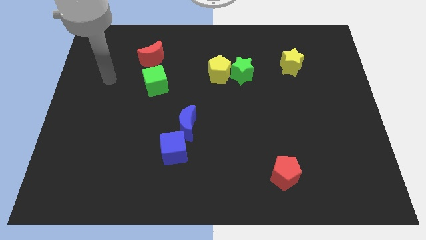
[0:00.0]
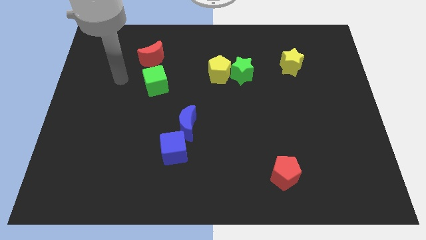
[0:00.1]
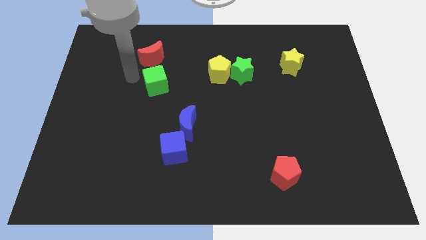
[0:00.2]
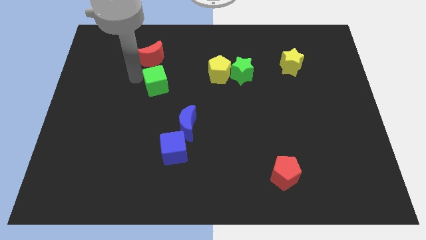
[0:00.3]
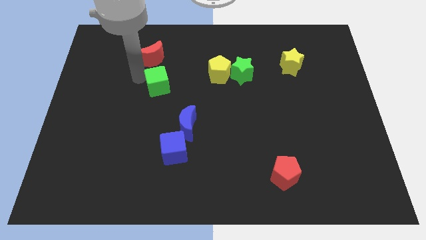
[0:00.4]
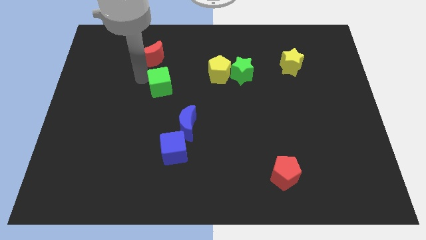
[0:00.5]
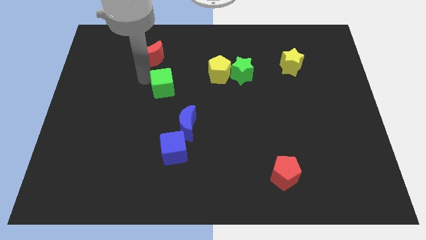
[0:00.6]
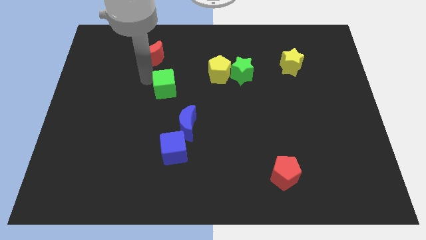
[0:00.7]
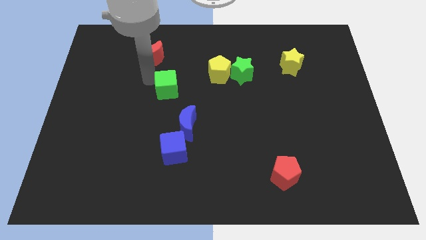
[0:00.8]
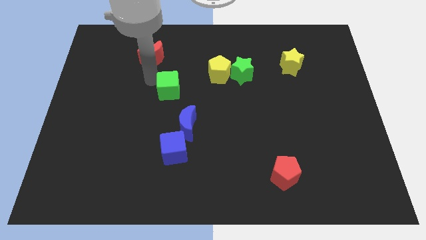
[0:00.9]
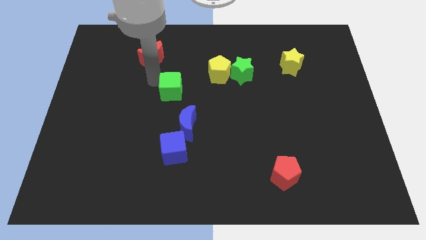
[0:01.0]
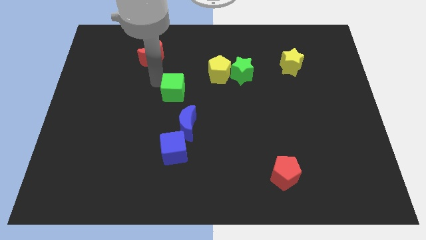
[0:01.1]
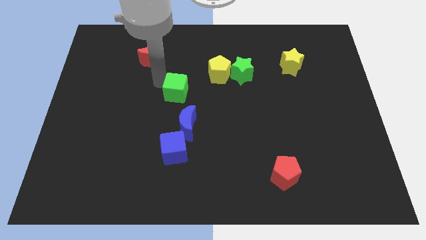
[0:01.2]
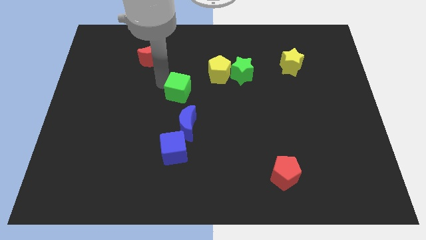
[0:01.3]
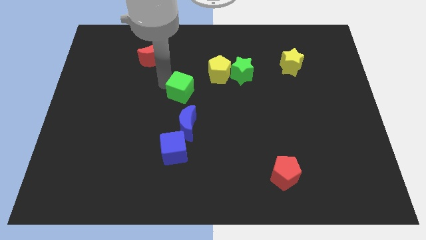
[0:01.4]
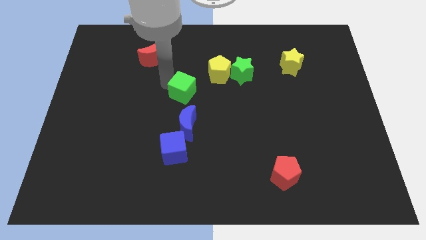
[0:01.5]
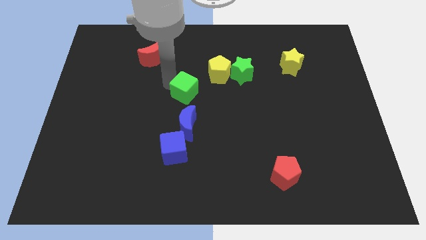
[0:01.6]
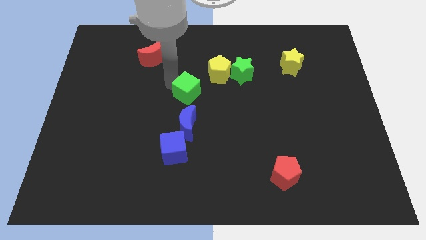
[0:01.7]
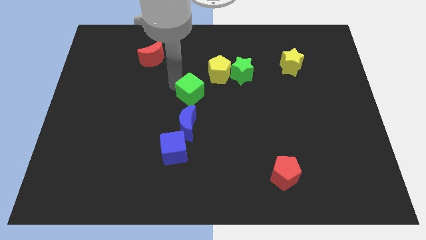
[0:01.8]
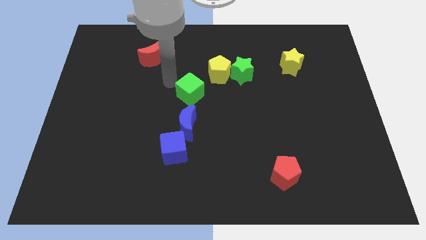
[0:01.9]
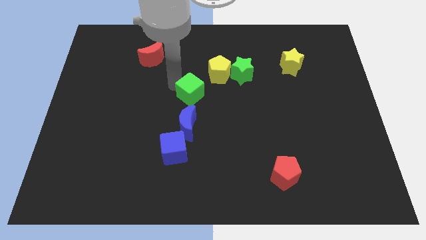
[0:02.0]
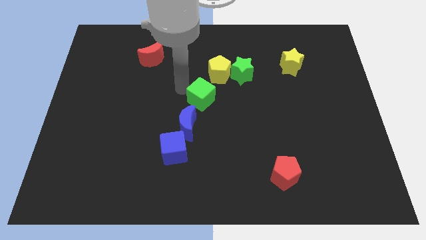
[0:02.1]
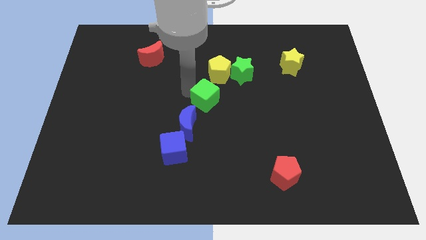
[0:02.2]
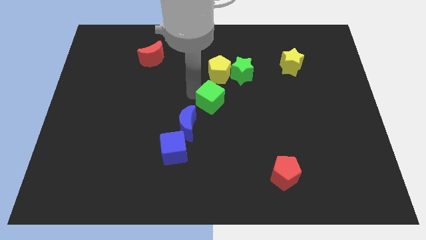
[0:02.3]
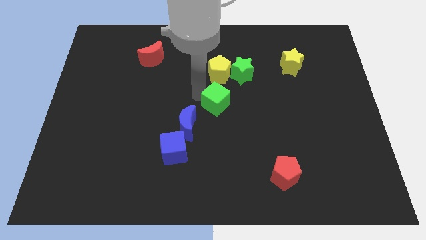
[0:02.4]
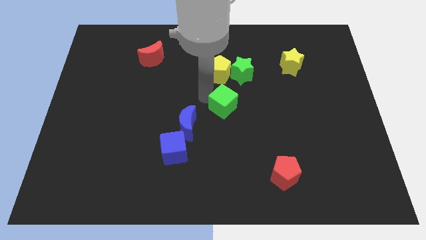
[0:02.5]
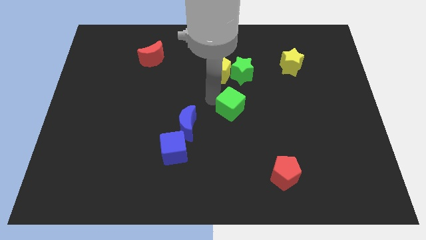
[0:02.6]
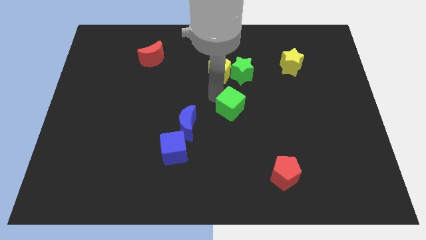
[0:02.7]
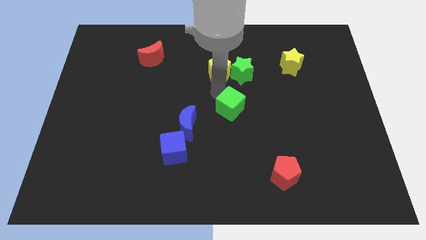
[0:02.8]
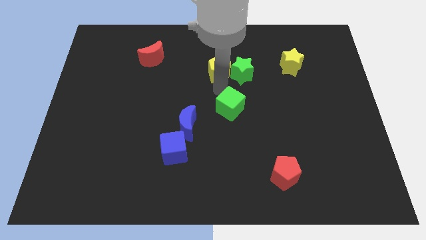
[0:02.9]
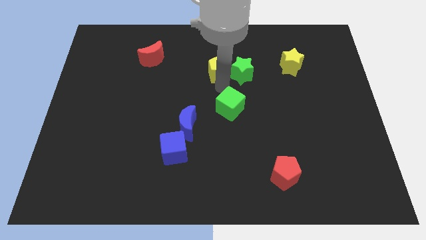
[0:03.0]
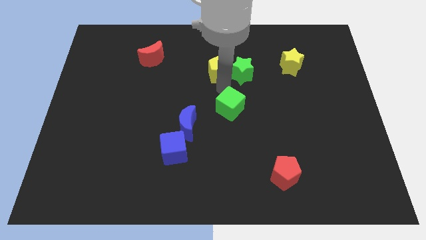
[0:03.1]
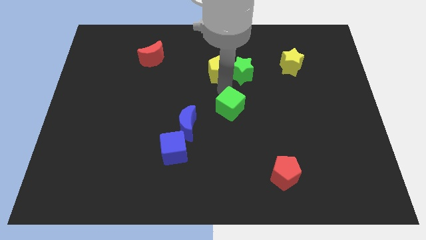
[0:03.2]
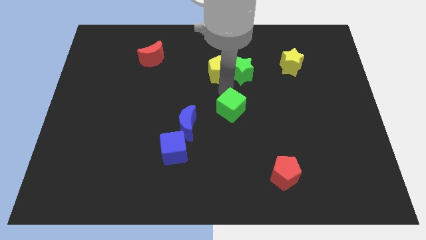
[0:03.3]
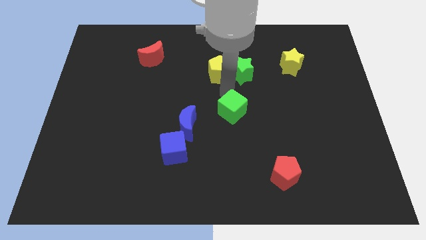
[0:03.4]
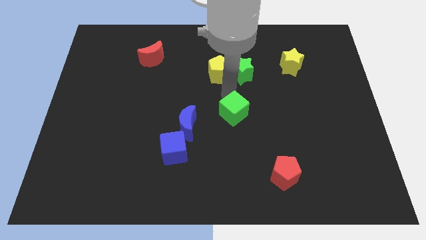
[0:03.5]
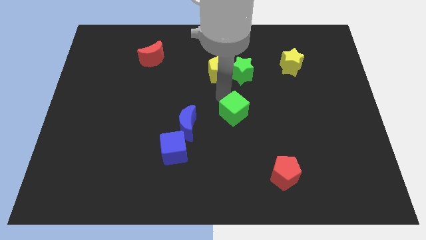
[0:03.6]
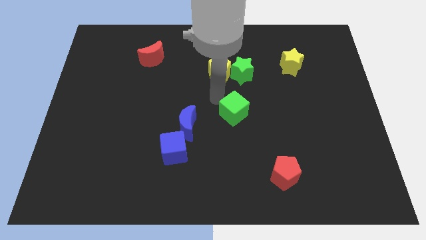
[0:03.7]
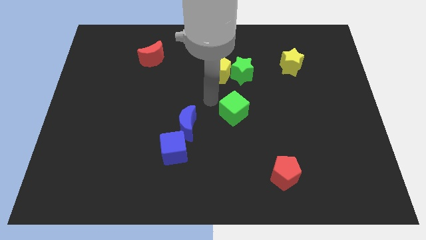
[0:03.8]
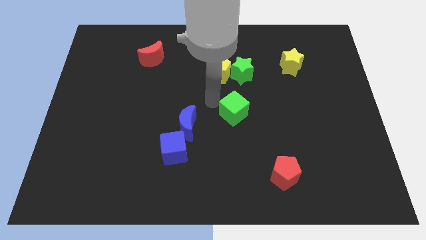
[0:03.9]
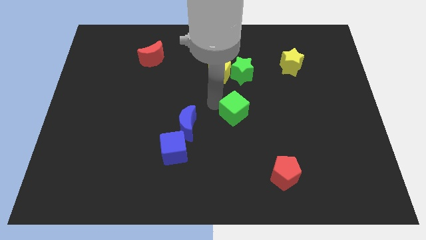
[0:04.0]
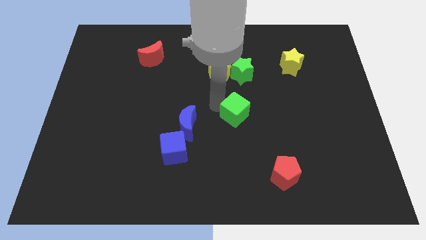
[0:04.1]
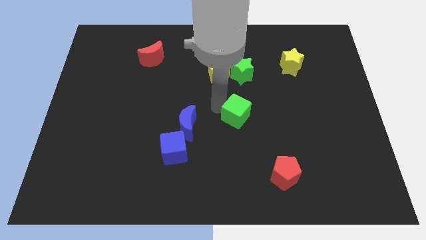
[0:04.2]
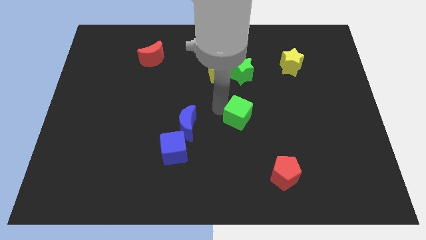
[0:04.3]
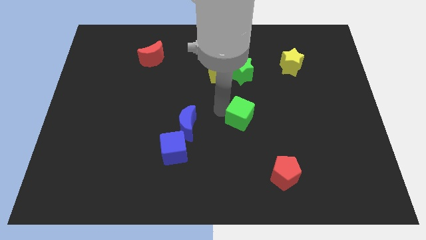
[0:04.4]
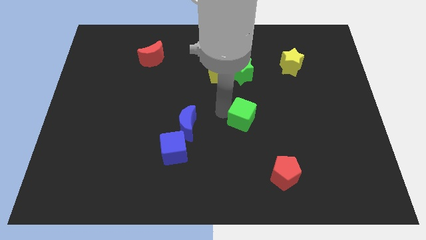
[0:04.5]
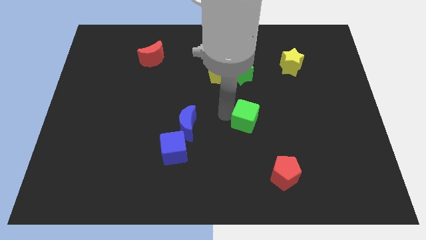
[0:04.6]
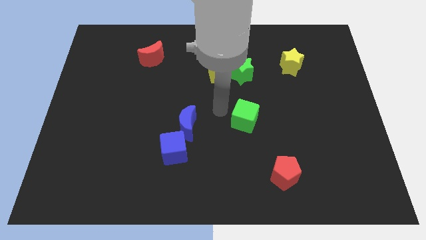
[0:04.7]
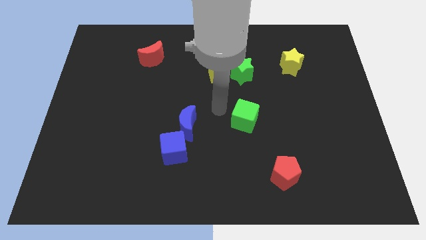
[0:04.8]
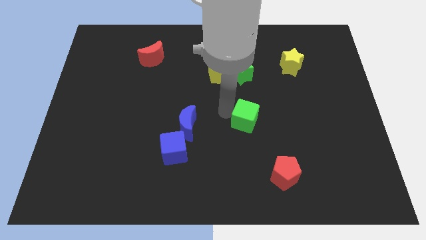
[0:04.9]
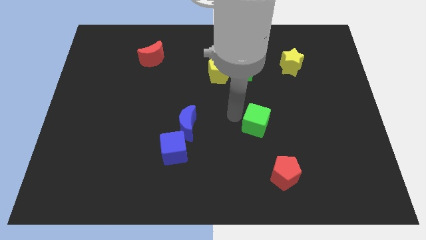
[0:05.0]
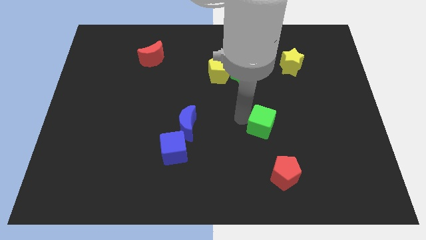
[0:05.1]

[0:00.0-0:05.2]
move the green cube to the top of the red pentagon

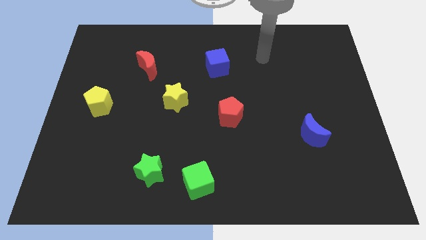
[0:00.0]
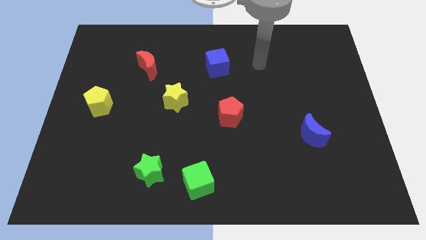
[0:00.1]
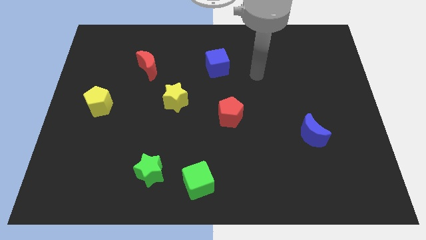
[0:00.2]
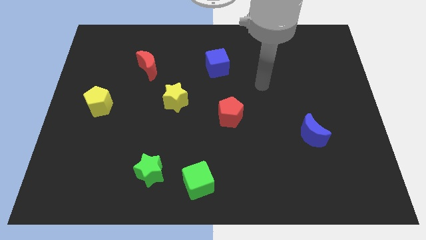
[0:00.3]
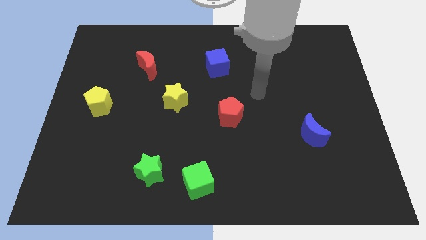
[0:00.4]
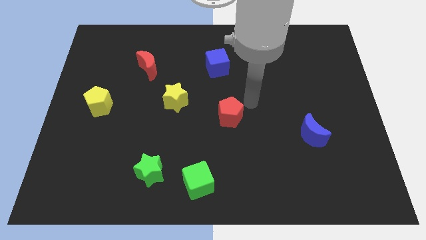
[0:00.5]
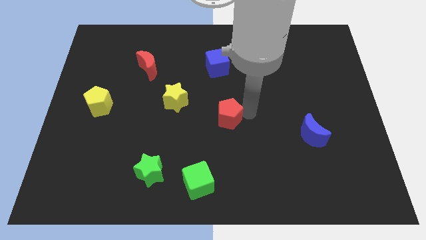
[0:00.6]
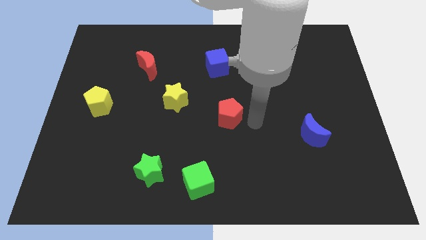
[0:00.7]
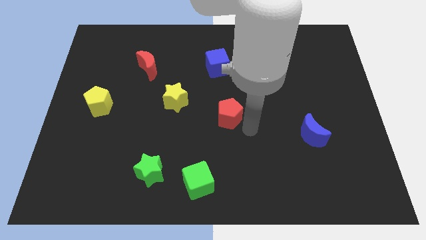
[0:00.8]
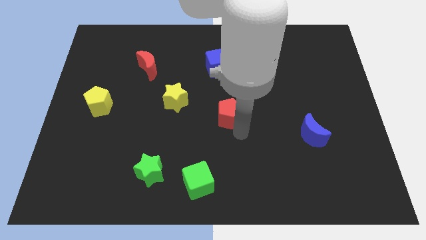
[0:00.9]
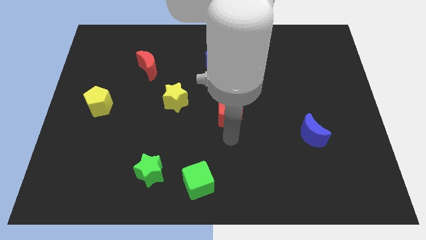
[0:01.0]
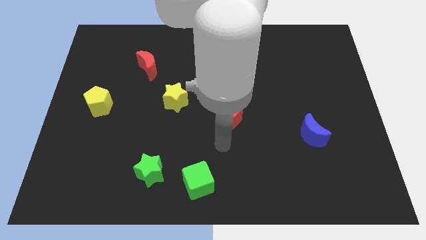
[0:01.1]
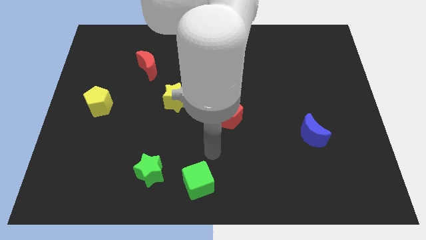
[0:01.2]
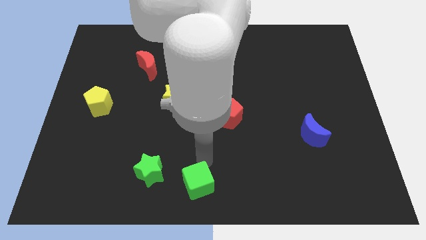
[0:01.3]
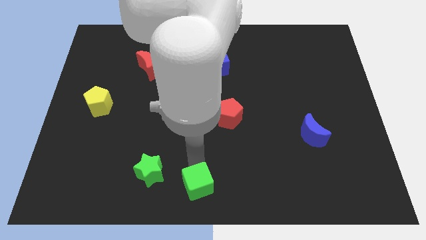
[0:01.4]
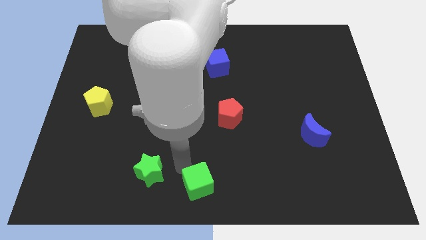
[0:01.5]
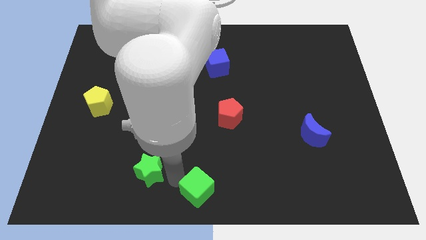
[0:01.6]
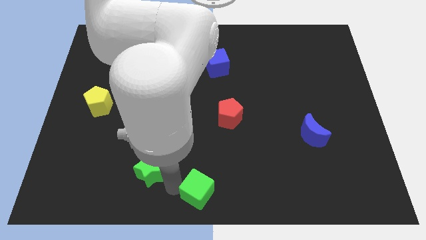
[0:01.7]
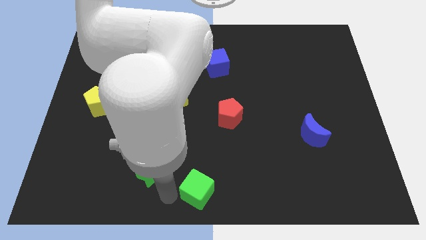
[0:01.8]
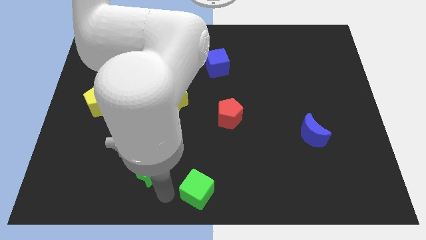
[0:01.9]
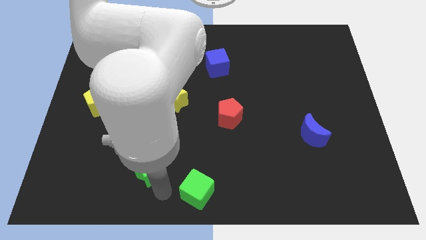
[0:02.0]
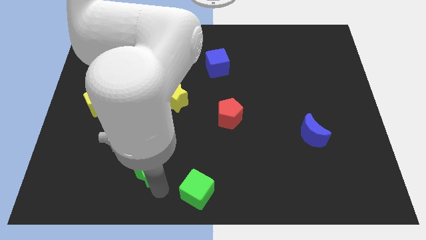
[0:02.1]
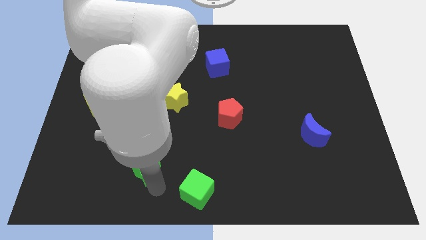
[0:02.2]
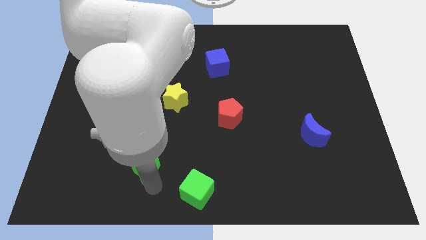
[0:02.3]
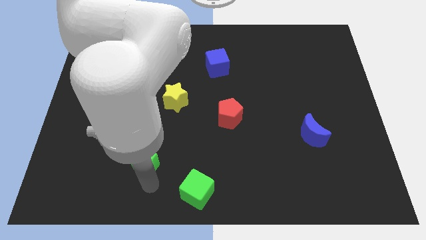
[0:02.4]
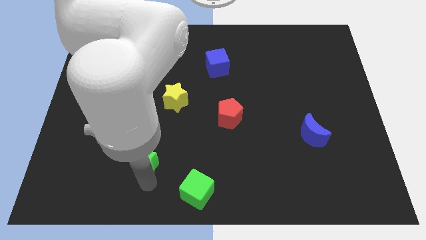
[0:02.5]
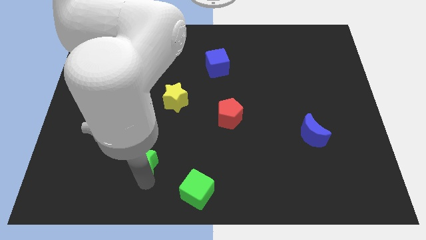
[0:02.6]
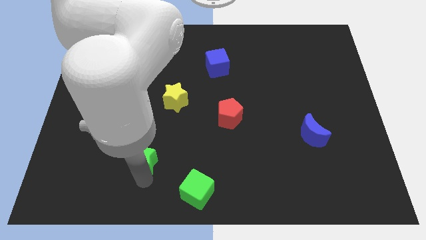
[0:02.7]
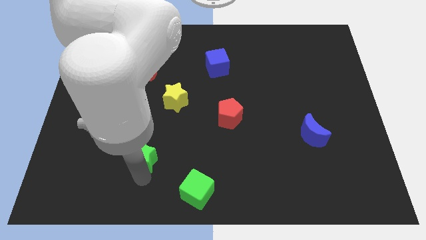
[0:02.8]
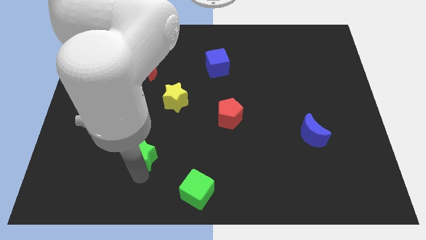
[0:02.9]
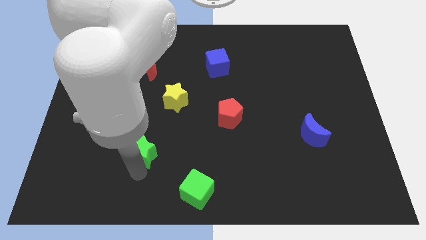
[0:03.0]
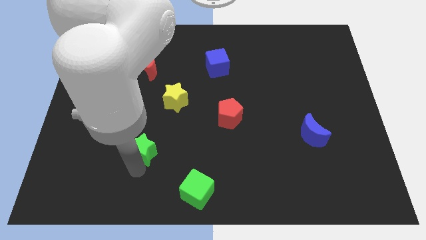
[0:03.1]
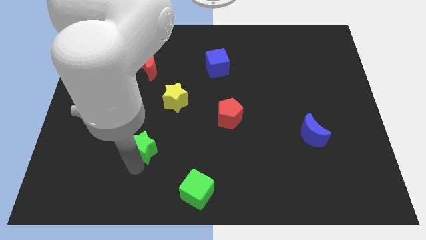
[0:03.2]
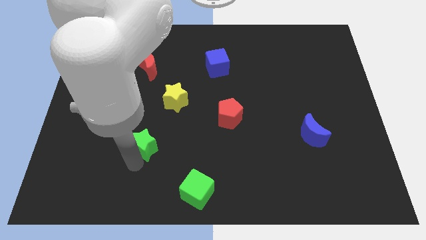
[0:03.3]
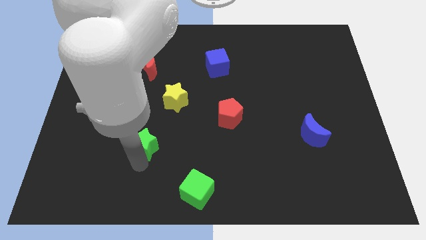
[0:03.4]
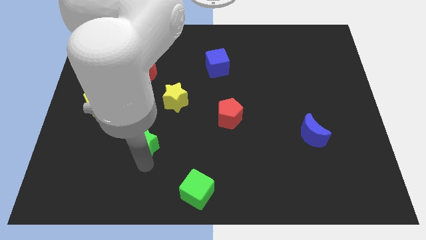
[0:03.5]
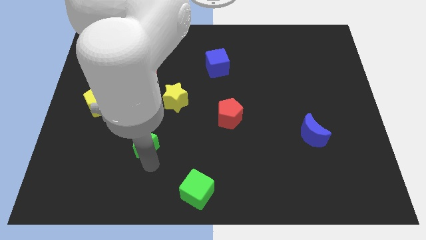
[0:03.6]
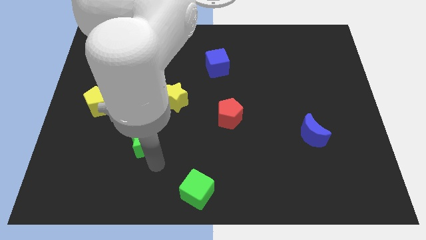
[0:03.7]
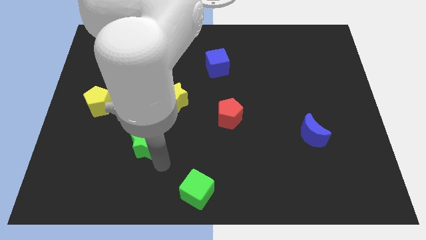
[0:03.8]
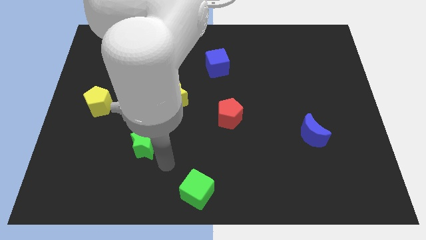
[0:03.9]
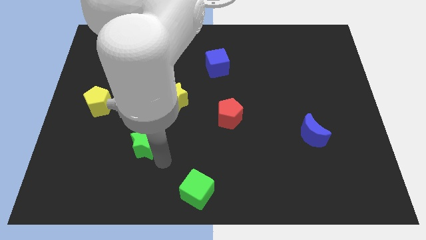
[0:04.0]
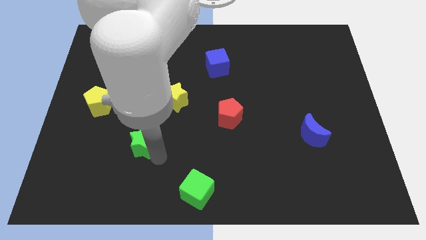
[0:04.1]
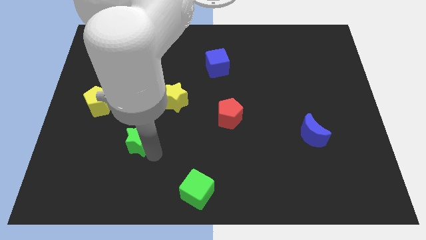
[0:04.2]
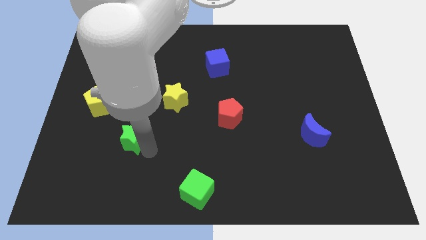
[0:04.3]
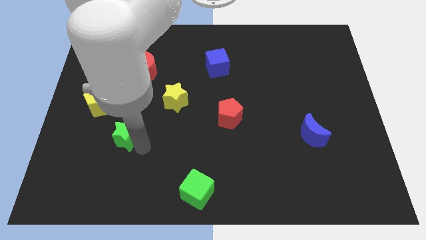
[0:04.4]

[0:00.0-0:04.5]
push the green star to the bottom right of the yellow pentagon
